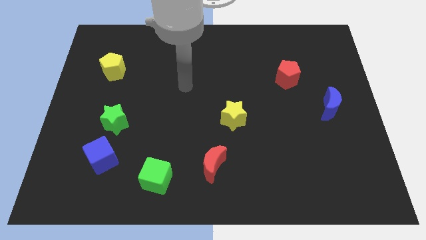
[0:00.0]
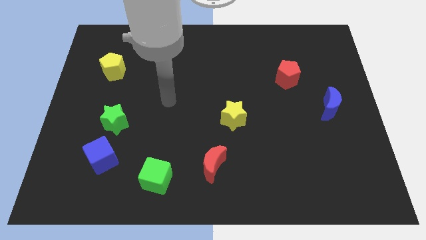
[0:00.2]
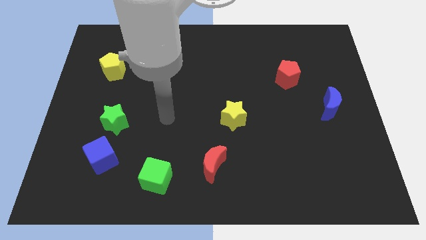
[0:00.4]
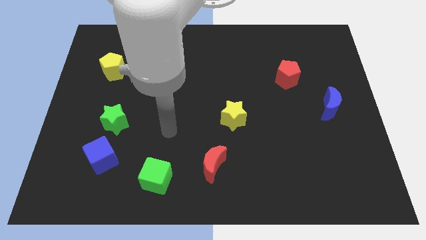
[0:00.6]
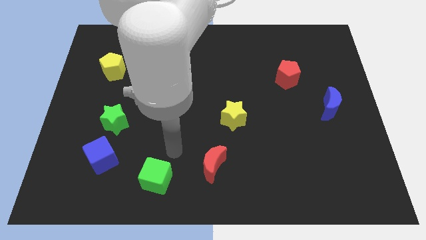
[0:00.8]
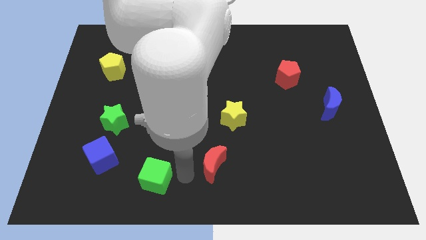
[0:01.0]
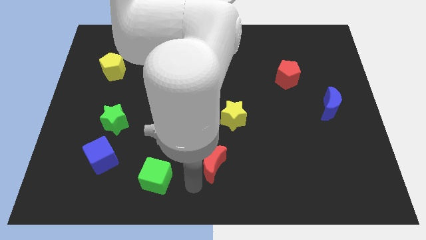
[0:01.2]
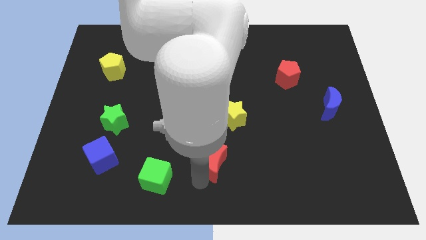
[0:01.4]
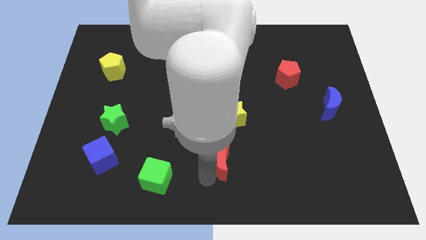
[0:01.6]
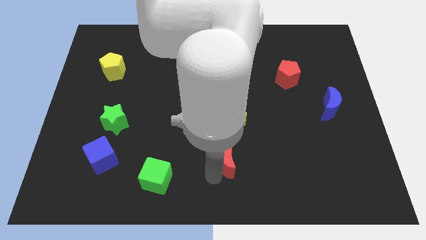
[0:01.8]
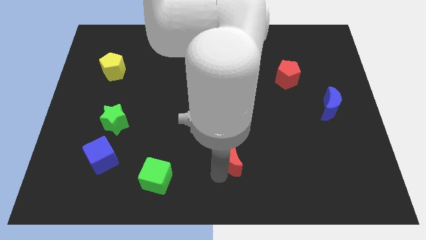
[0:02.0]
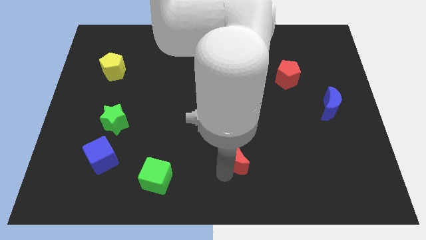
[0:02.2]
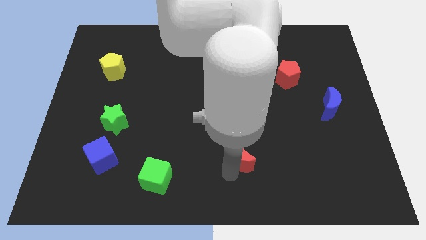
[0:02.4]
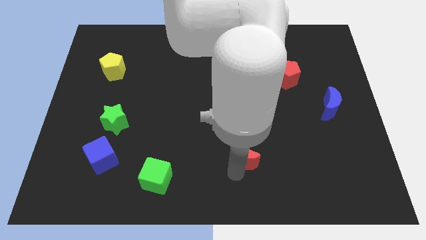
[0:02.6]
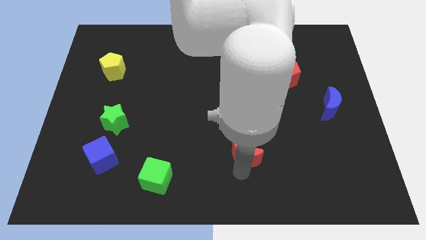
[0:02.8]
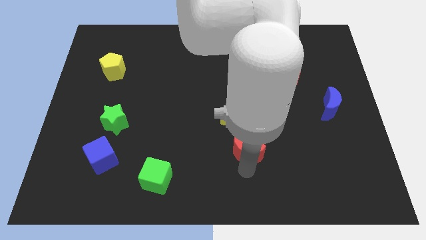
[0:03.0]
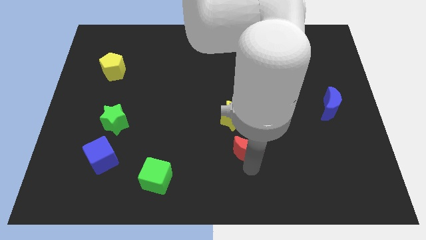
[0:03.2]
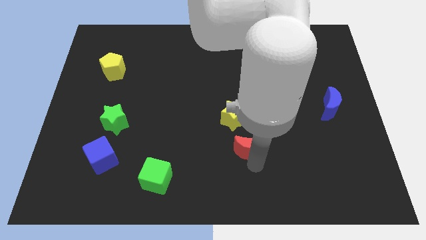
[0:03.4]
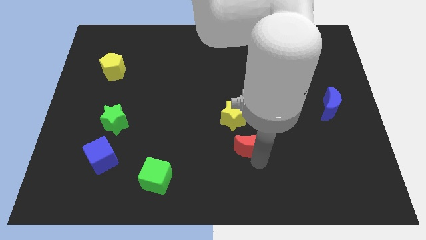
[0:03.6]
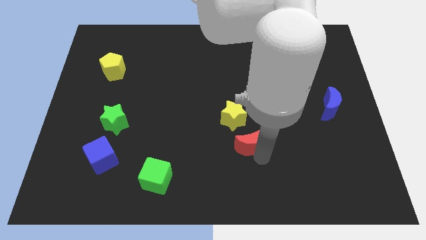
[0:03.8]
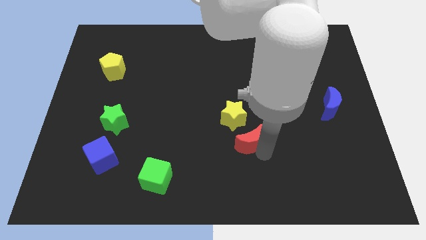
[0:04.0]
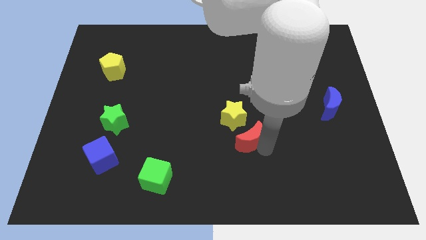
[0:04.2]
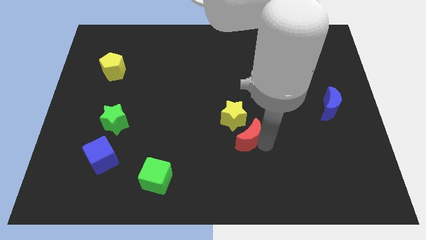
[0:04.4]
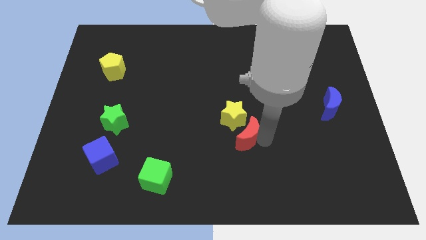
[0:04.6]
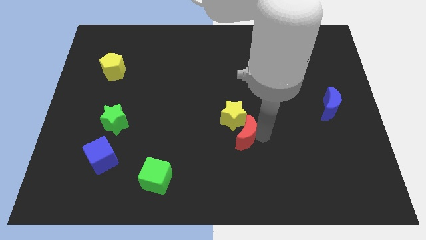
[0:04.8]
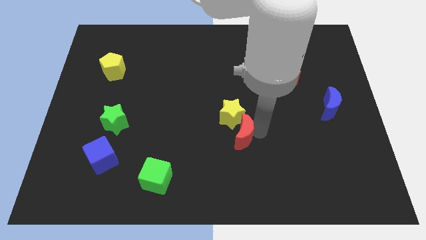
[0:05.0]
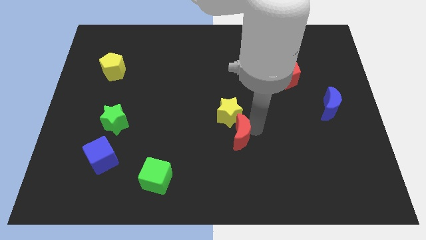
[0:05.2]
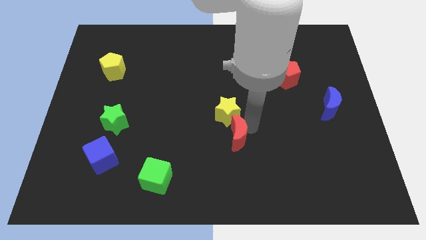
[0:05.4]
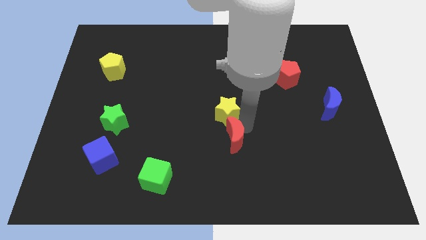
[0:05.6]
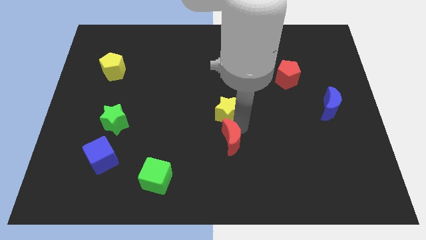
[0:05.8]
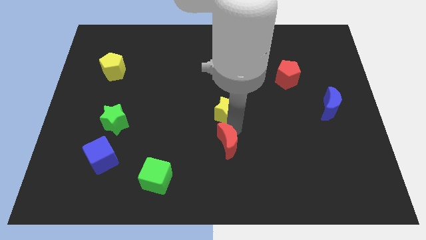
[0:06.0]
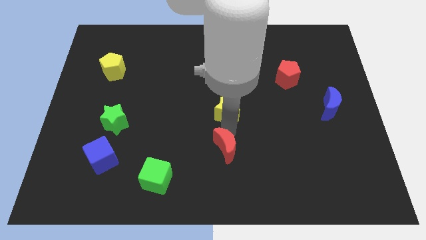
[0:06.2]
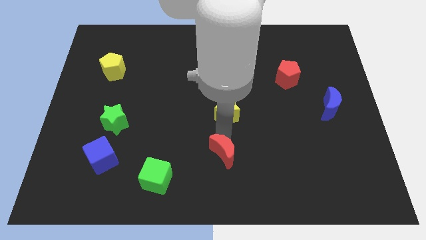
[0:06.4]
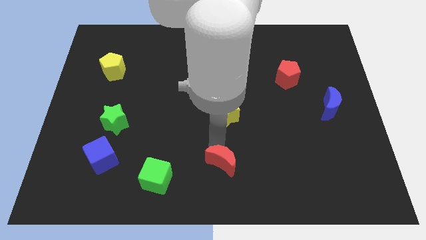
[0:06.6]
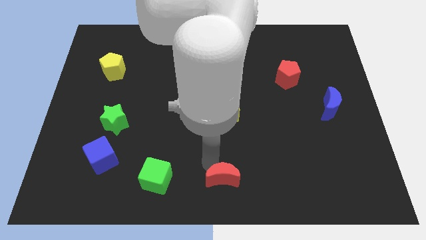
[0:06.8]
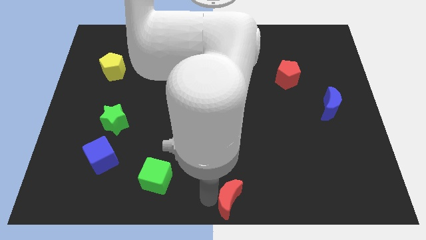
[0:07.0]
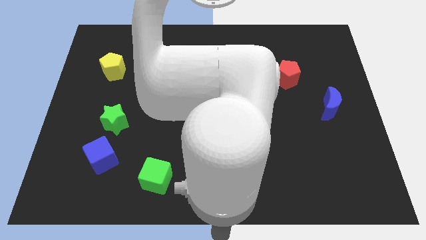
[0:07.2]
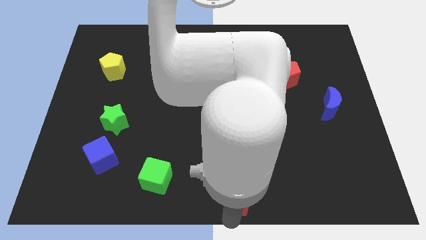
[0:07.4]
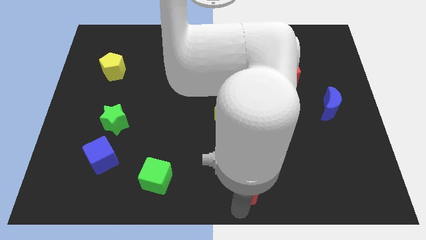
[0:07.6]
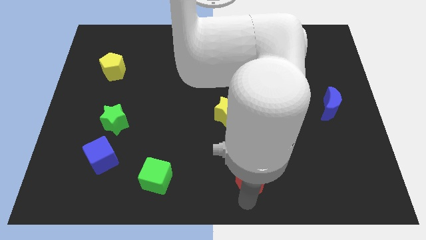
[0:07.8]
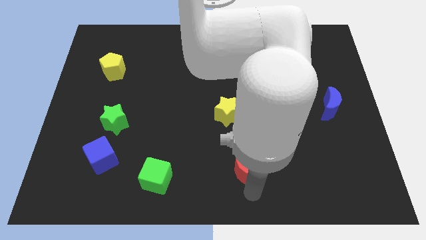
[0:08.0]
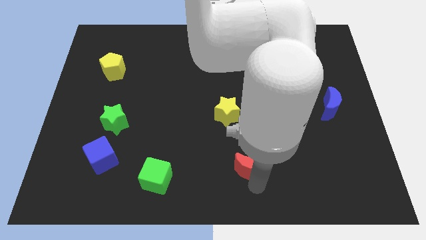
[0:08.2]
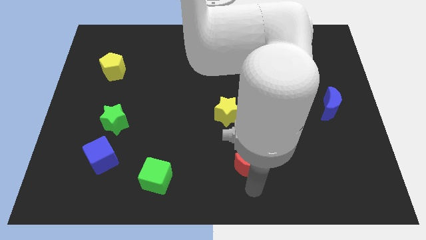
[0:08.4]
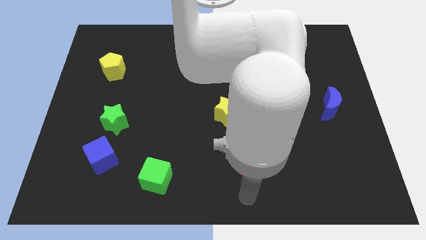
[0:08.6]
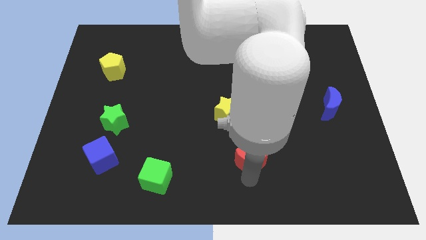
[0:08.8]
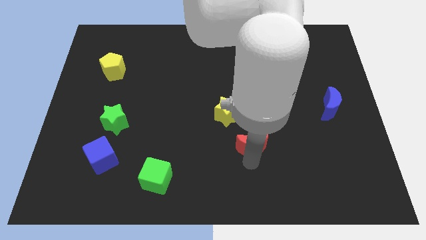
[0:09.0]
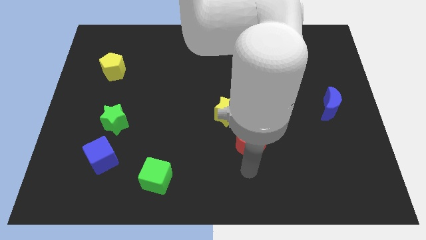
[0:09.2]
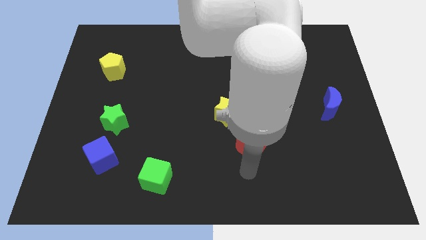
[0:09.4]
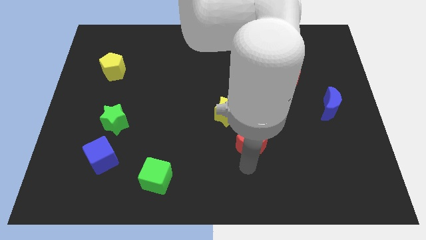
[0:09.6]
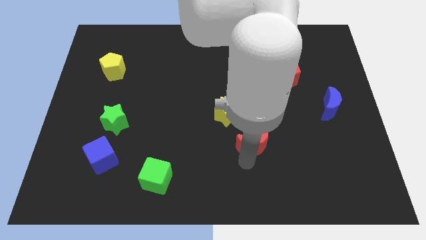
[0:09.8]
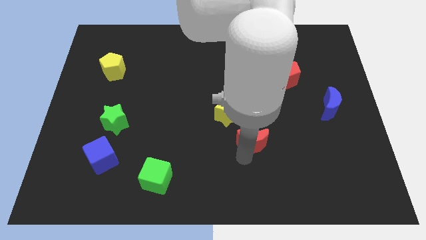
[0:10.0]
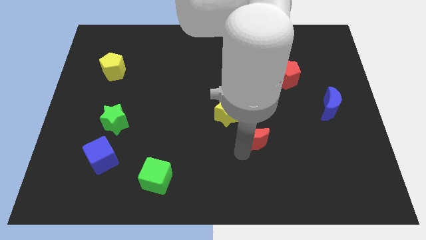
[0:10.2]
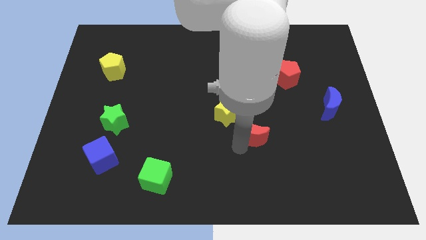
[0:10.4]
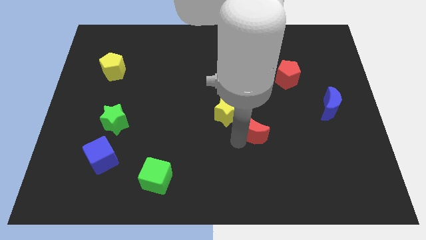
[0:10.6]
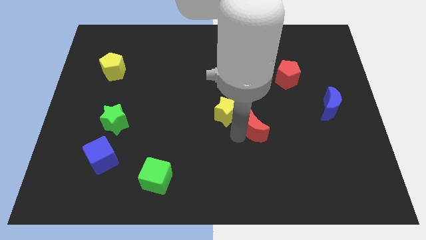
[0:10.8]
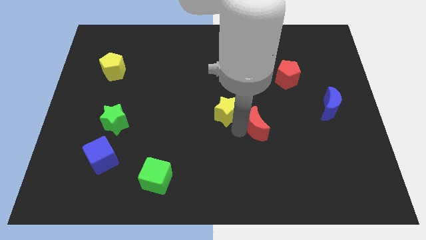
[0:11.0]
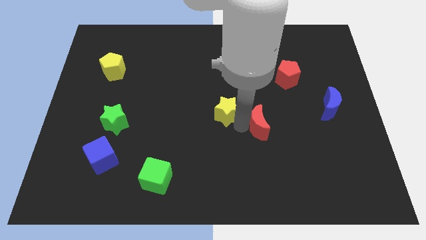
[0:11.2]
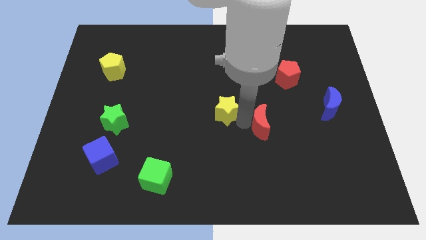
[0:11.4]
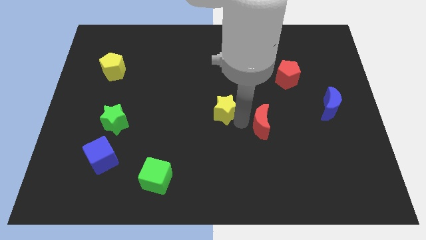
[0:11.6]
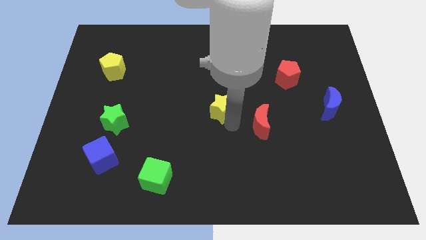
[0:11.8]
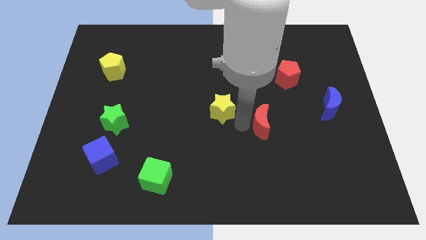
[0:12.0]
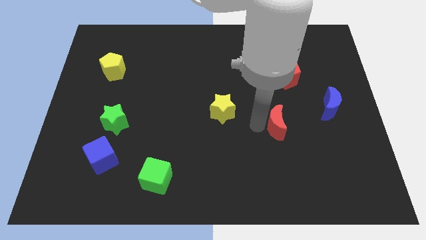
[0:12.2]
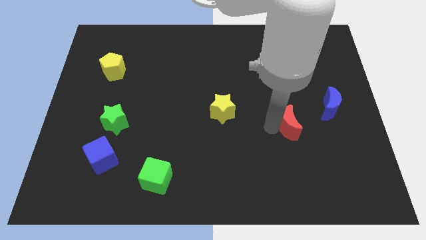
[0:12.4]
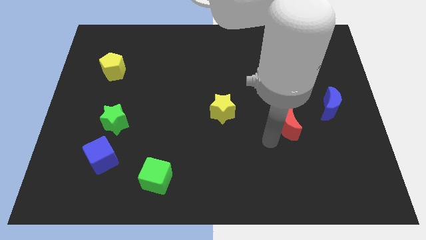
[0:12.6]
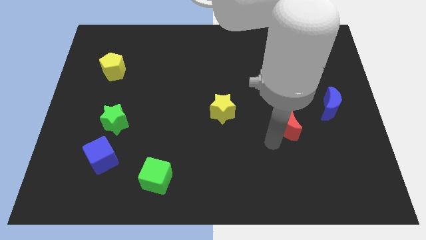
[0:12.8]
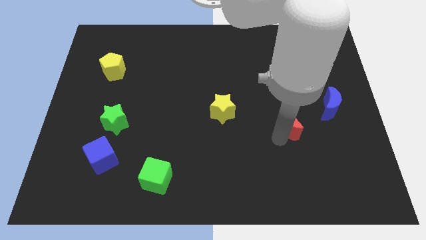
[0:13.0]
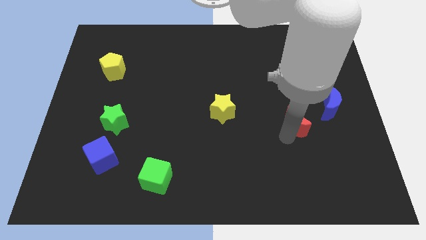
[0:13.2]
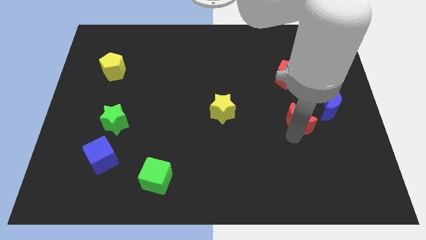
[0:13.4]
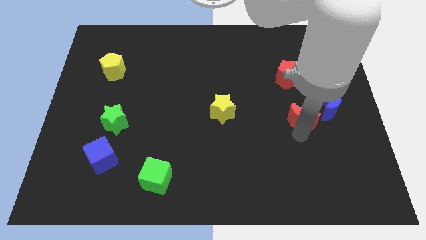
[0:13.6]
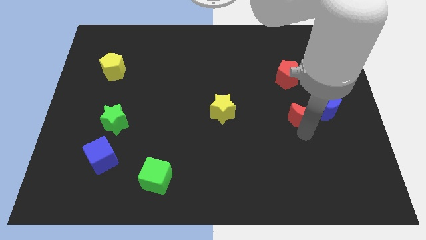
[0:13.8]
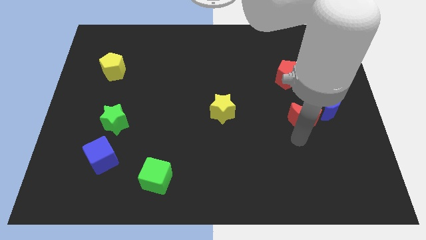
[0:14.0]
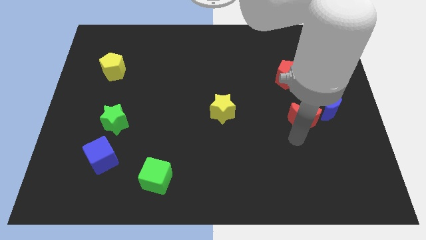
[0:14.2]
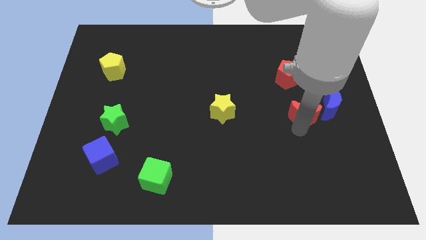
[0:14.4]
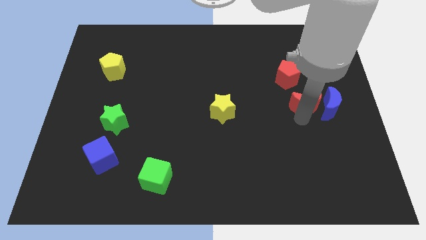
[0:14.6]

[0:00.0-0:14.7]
slide the red moon to the bottom right of the red pentagon
